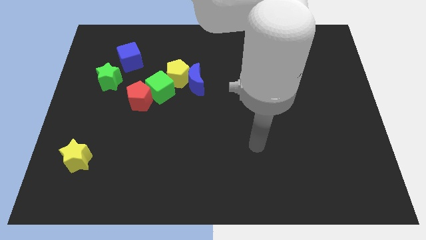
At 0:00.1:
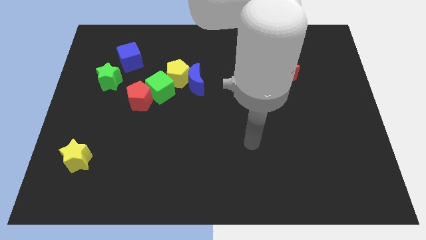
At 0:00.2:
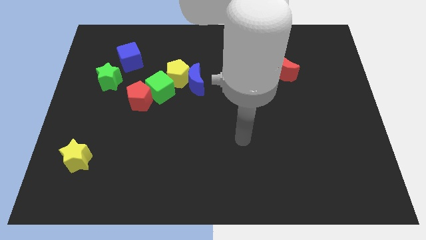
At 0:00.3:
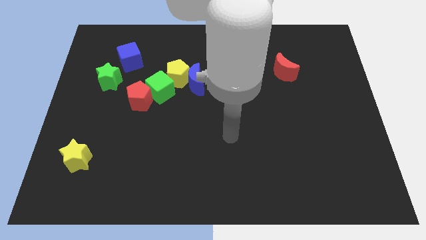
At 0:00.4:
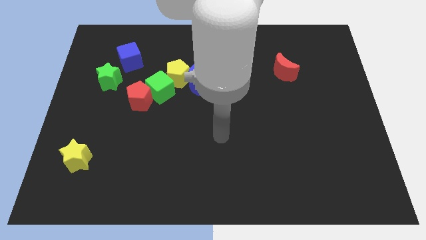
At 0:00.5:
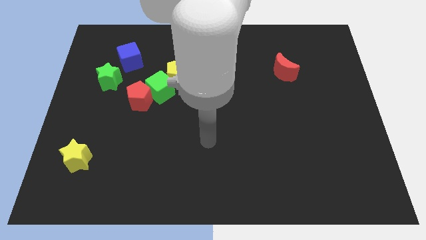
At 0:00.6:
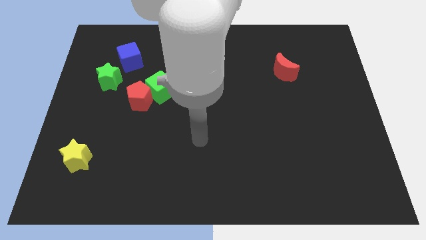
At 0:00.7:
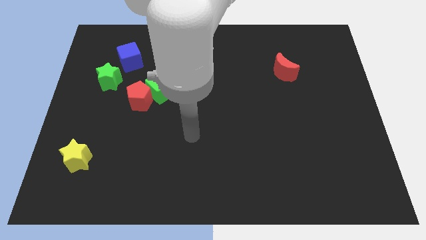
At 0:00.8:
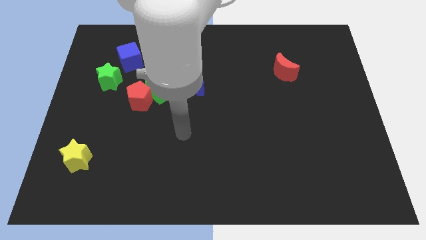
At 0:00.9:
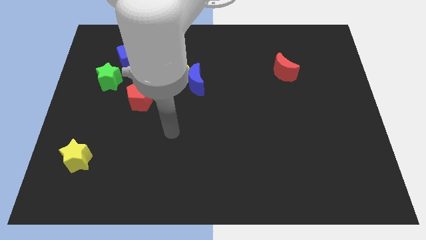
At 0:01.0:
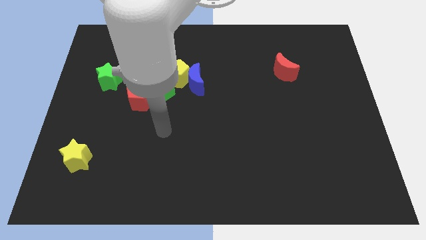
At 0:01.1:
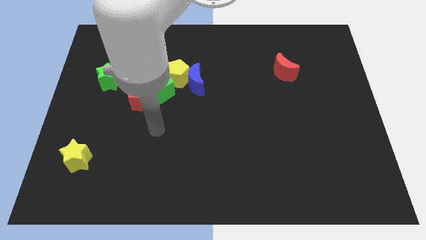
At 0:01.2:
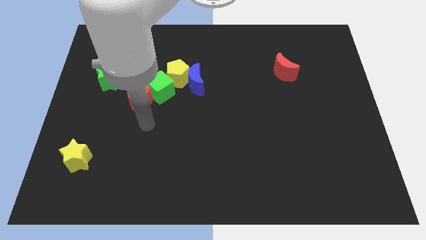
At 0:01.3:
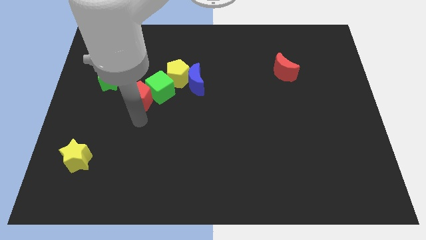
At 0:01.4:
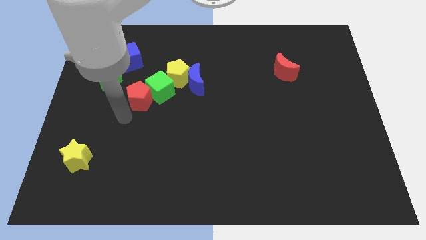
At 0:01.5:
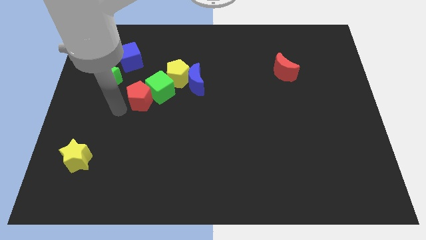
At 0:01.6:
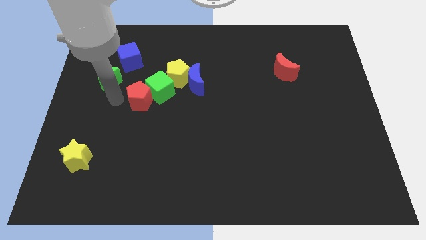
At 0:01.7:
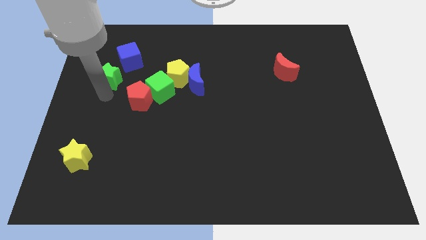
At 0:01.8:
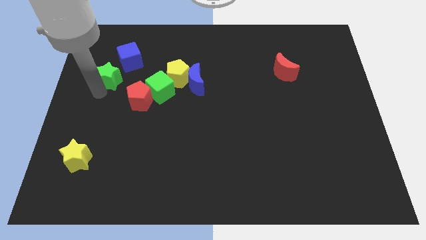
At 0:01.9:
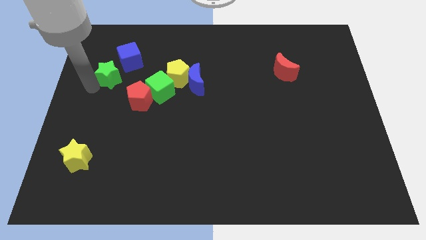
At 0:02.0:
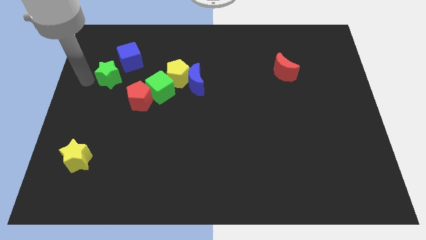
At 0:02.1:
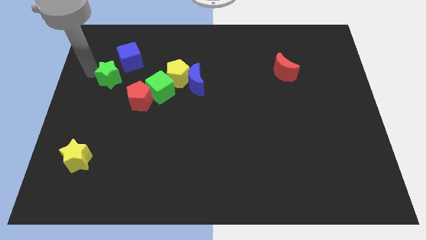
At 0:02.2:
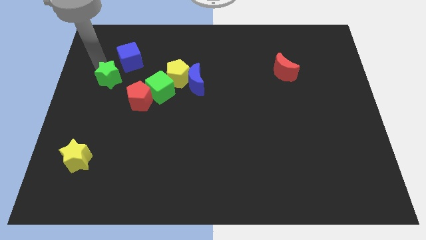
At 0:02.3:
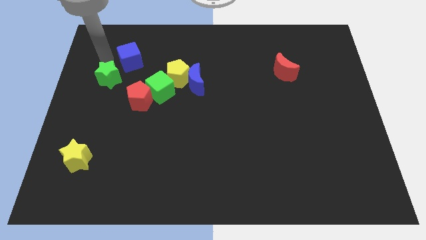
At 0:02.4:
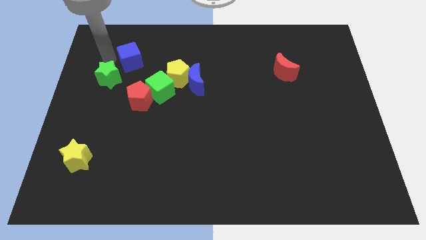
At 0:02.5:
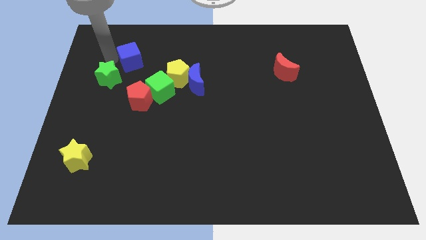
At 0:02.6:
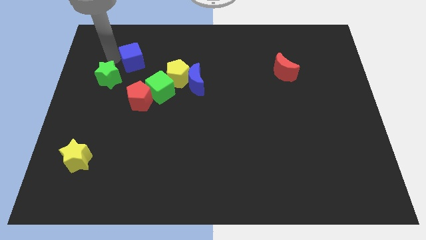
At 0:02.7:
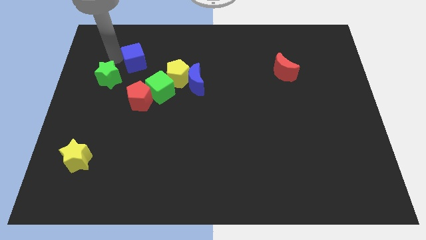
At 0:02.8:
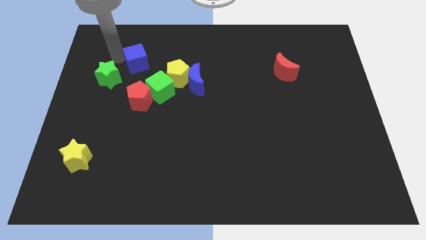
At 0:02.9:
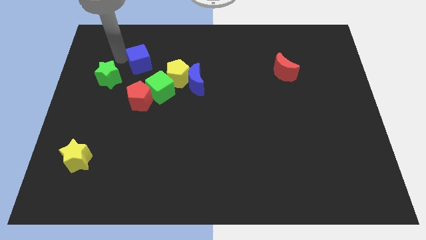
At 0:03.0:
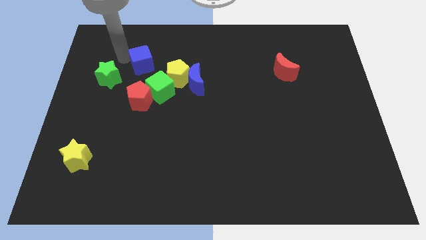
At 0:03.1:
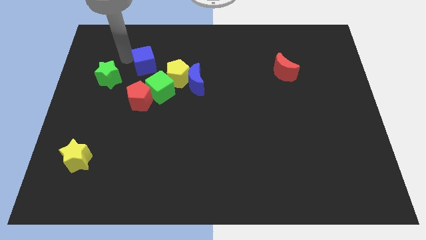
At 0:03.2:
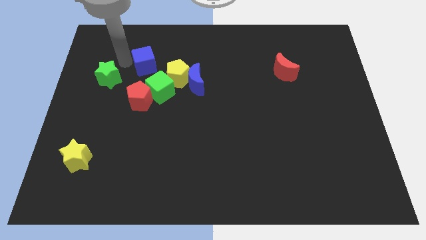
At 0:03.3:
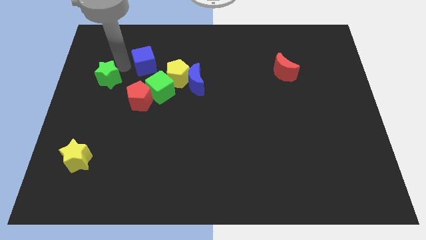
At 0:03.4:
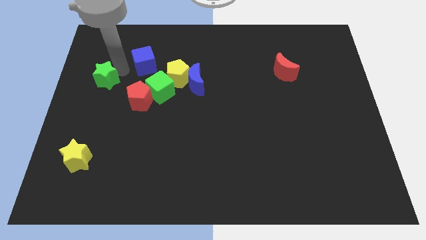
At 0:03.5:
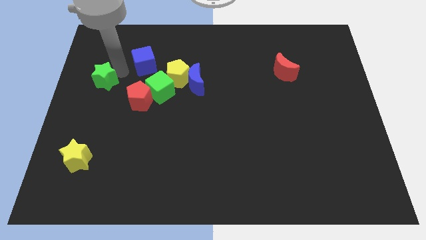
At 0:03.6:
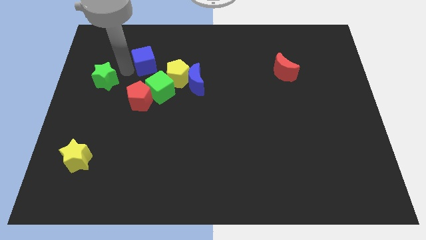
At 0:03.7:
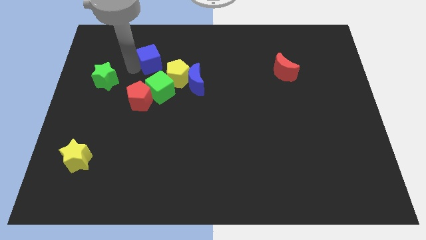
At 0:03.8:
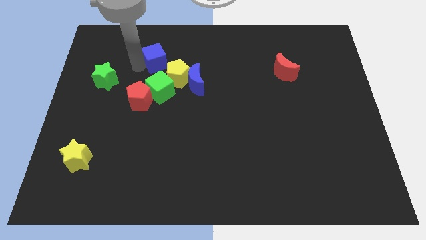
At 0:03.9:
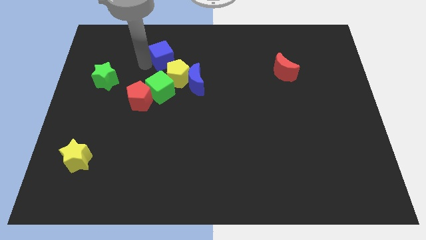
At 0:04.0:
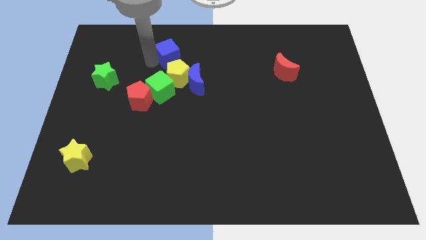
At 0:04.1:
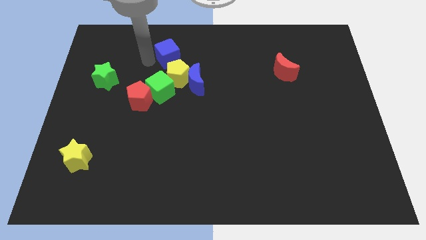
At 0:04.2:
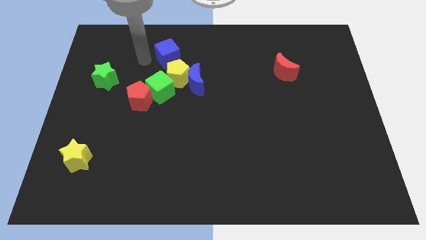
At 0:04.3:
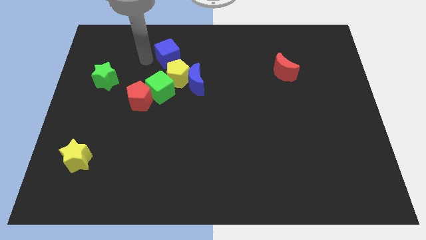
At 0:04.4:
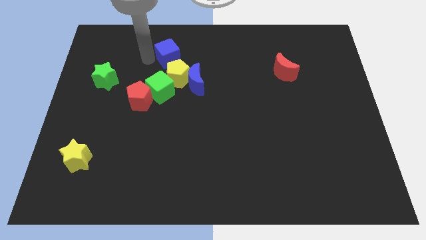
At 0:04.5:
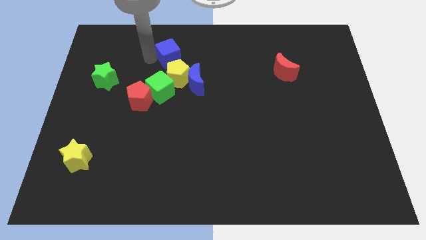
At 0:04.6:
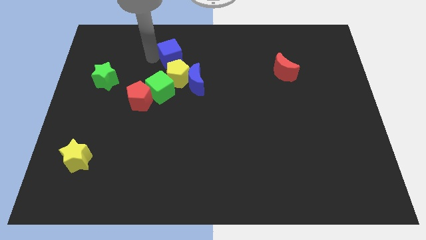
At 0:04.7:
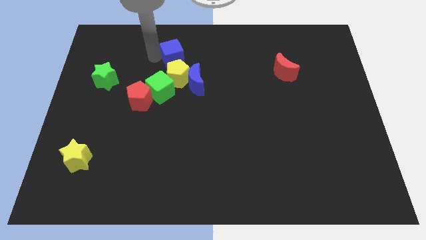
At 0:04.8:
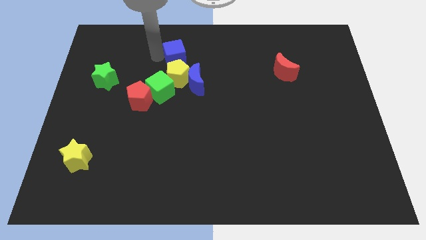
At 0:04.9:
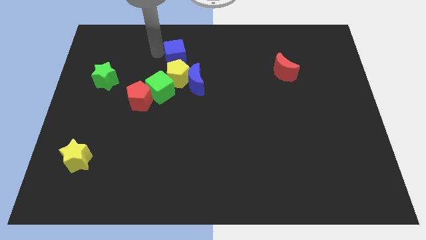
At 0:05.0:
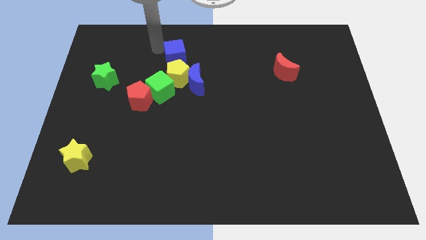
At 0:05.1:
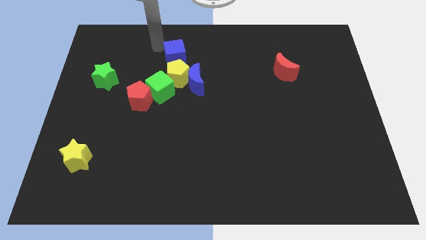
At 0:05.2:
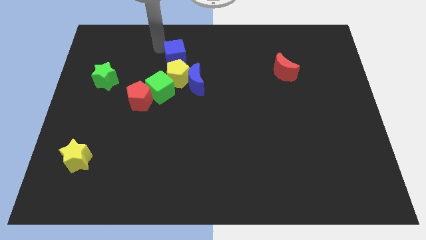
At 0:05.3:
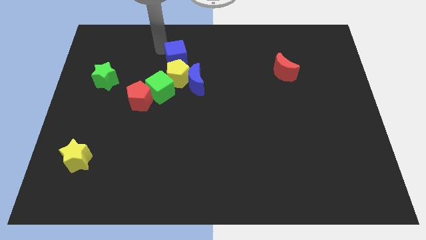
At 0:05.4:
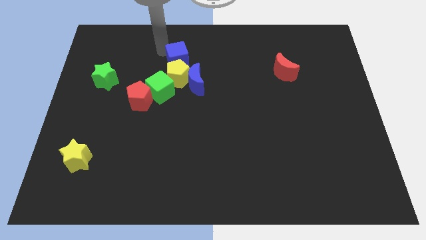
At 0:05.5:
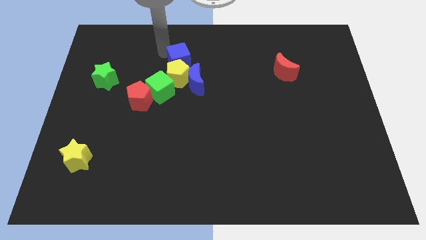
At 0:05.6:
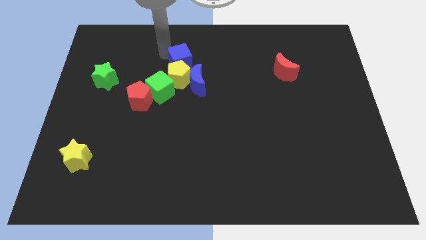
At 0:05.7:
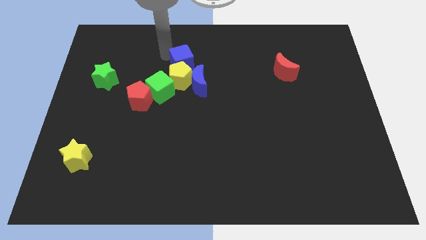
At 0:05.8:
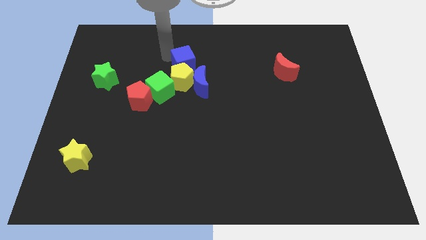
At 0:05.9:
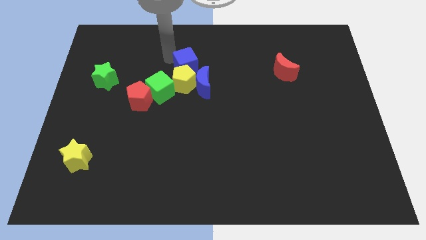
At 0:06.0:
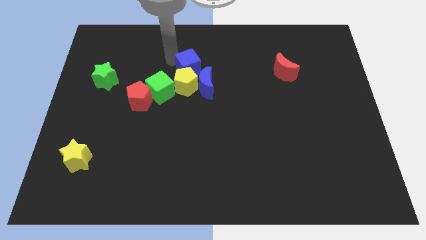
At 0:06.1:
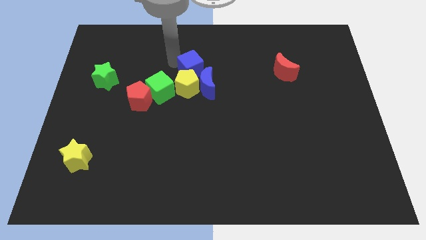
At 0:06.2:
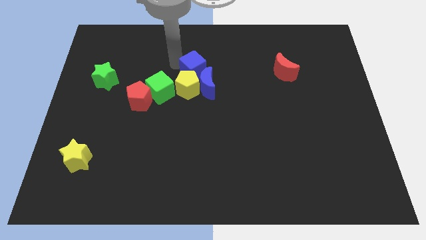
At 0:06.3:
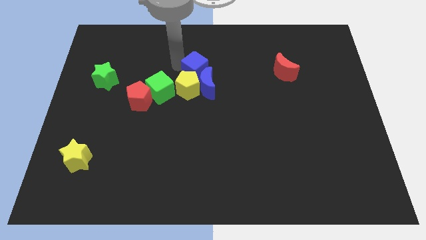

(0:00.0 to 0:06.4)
put the blue cube to the blue moon

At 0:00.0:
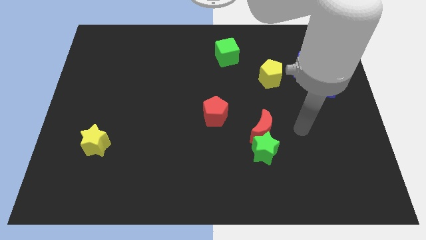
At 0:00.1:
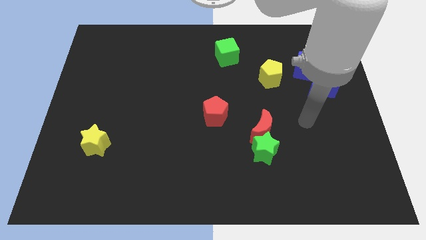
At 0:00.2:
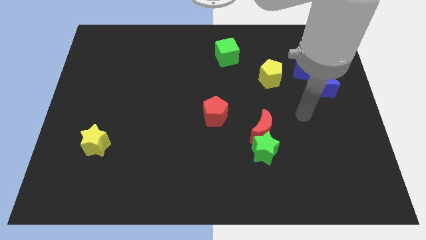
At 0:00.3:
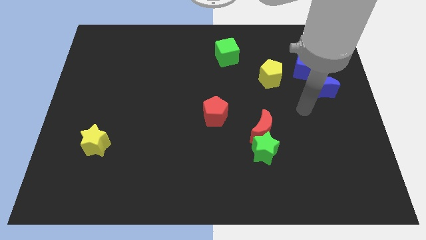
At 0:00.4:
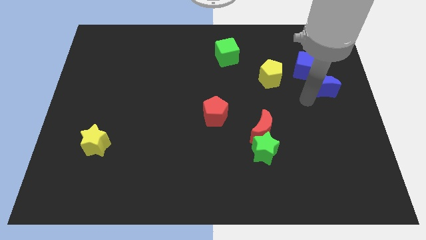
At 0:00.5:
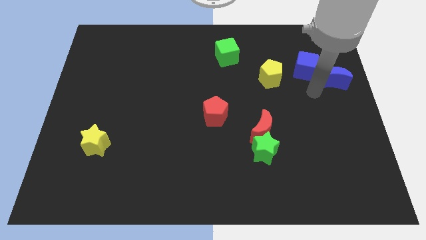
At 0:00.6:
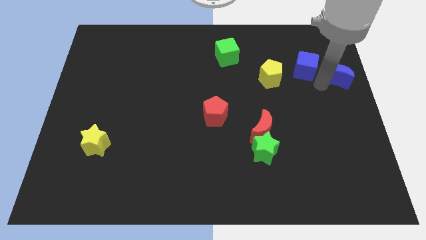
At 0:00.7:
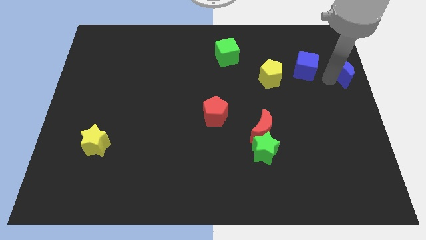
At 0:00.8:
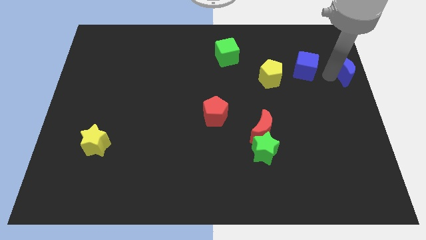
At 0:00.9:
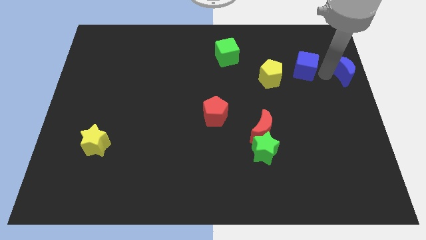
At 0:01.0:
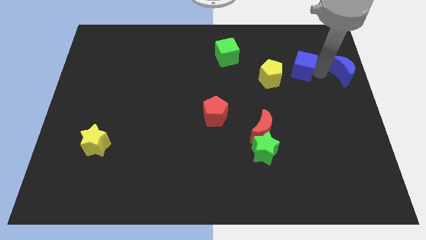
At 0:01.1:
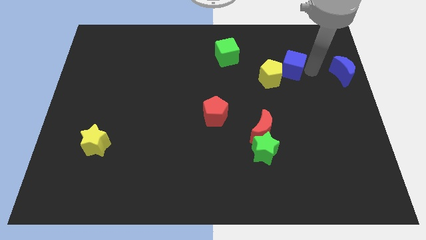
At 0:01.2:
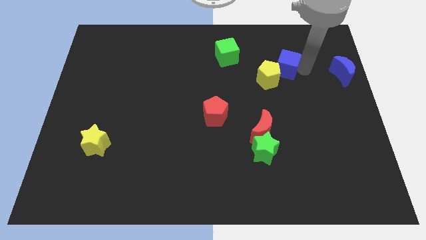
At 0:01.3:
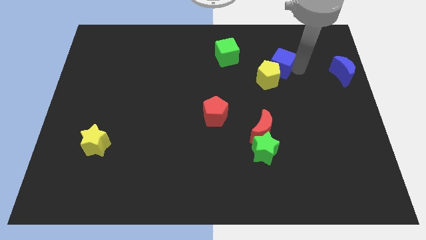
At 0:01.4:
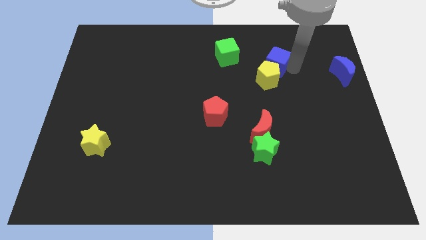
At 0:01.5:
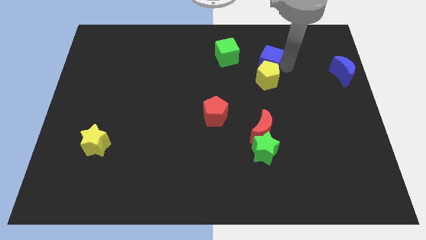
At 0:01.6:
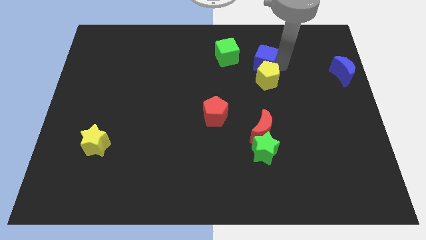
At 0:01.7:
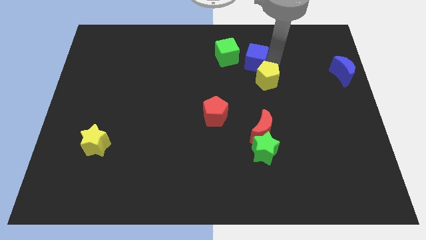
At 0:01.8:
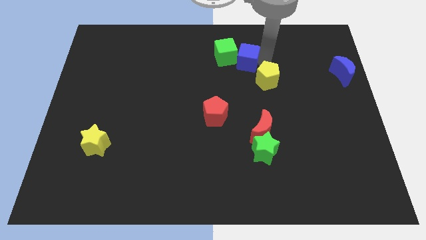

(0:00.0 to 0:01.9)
push the blue cube next to the green cube
